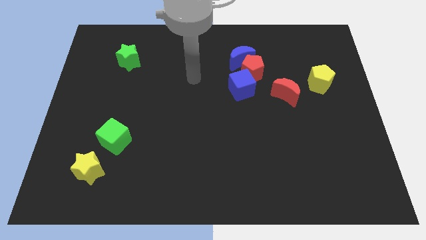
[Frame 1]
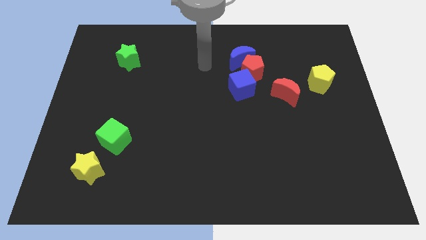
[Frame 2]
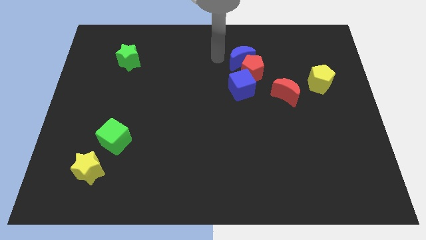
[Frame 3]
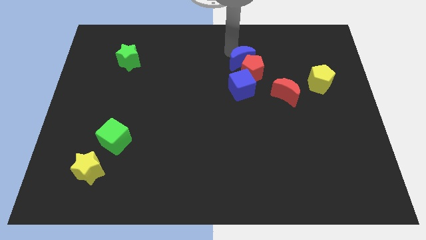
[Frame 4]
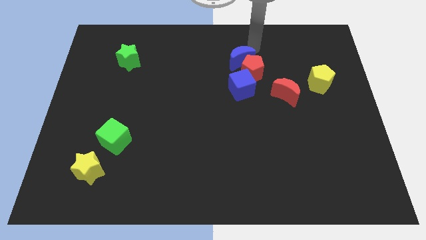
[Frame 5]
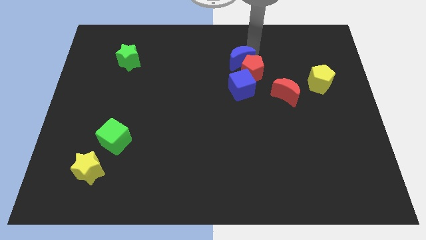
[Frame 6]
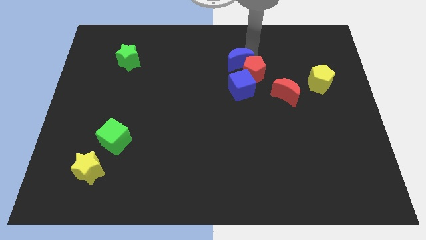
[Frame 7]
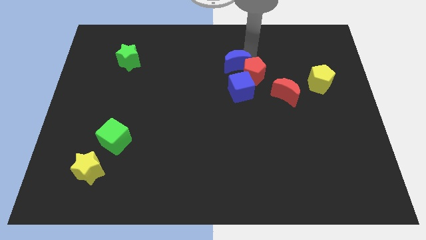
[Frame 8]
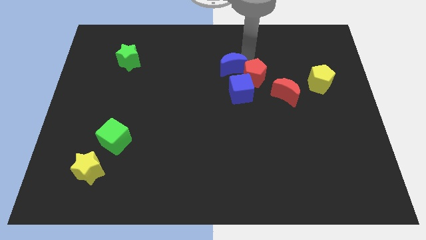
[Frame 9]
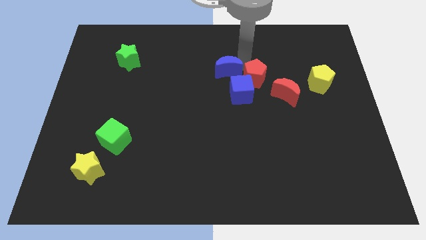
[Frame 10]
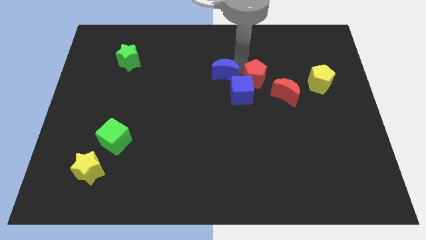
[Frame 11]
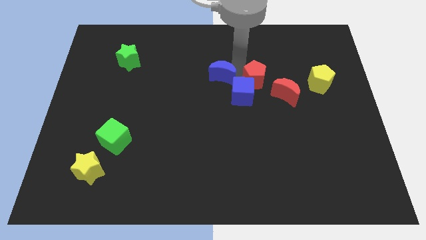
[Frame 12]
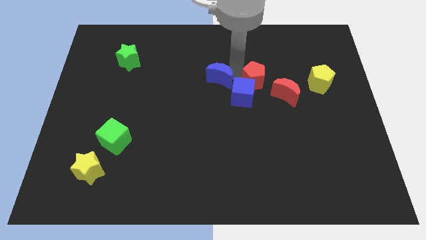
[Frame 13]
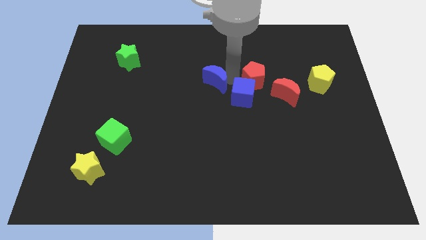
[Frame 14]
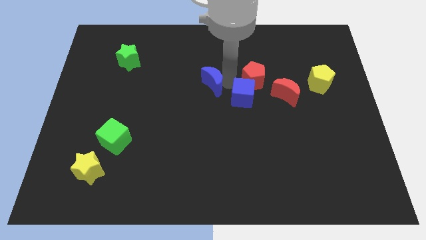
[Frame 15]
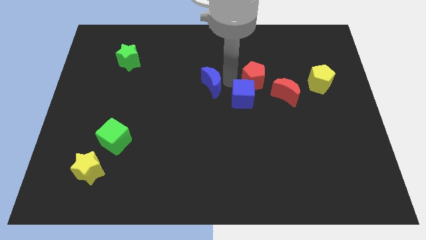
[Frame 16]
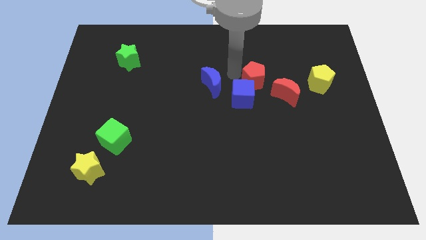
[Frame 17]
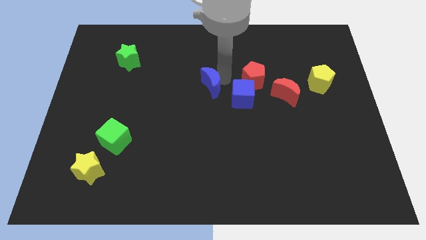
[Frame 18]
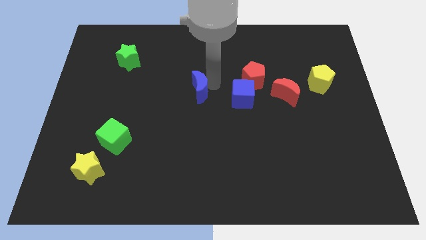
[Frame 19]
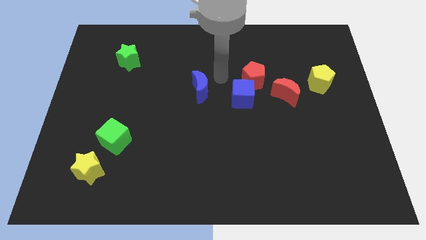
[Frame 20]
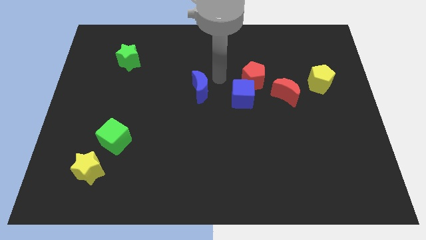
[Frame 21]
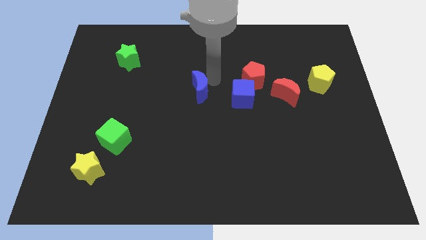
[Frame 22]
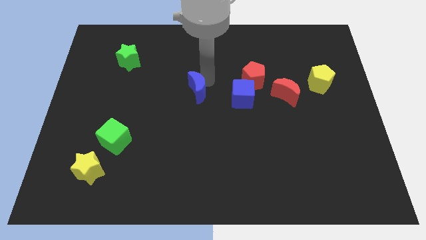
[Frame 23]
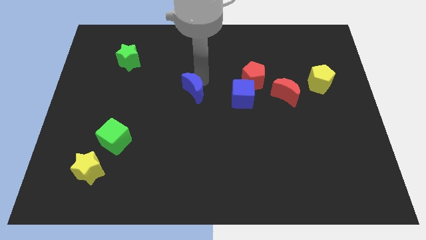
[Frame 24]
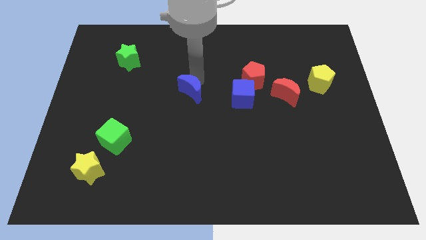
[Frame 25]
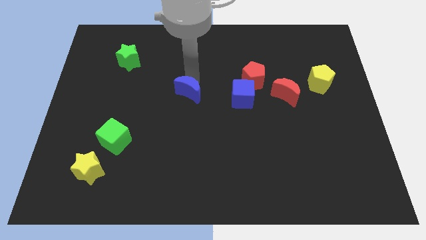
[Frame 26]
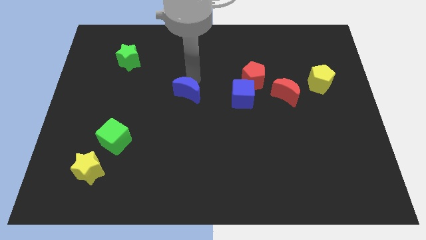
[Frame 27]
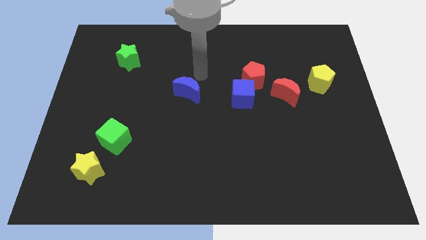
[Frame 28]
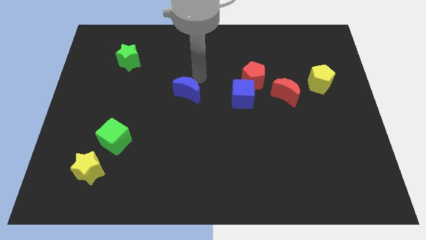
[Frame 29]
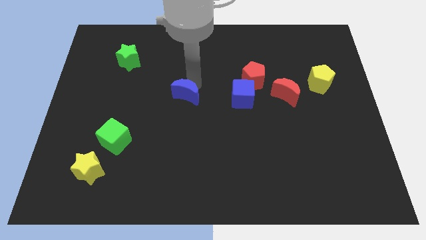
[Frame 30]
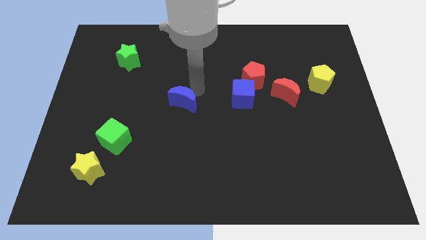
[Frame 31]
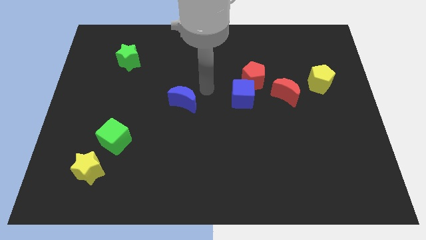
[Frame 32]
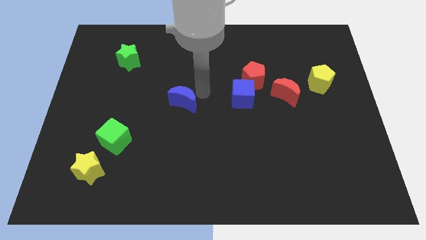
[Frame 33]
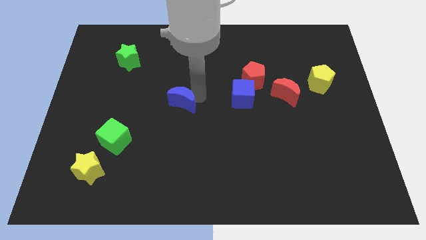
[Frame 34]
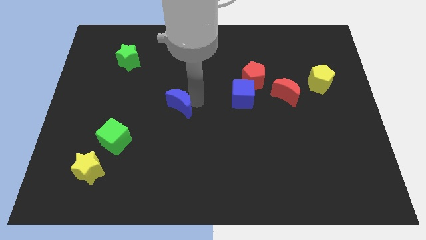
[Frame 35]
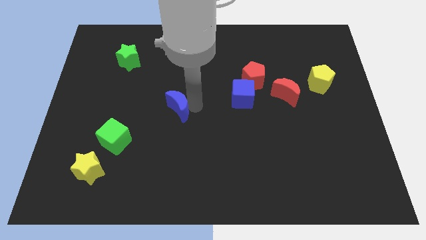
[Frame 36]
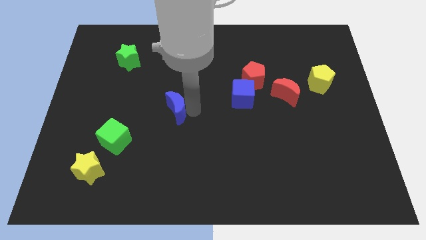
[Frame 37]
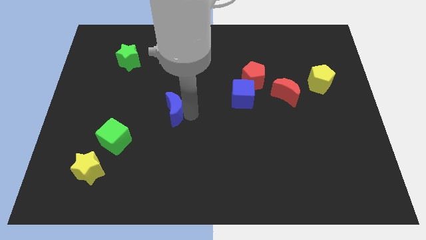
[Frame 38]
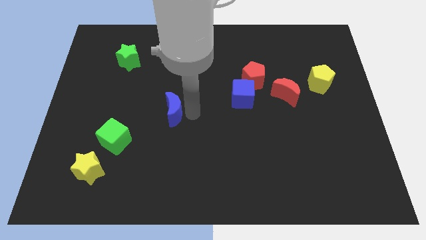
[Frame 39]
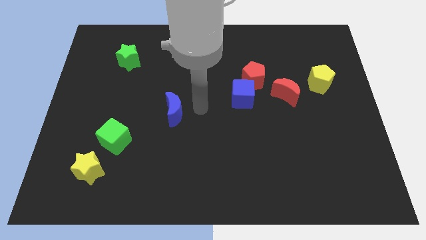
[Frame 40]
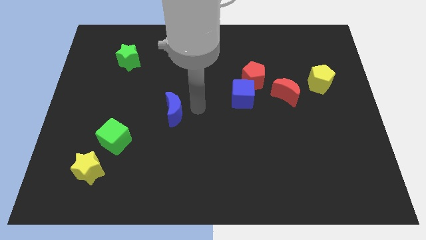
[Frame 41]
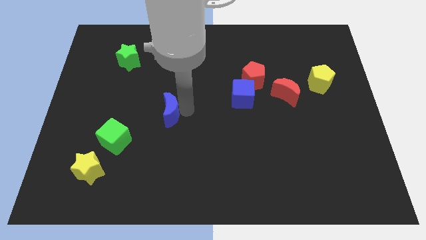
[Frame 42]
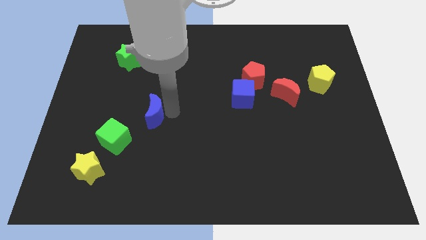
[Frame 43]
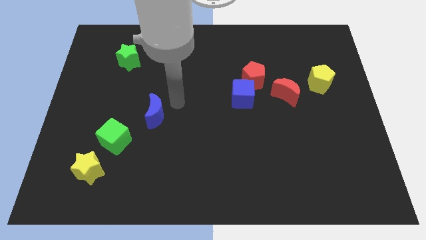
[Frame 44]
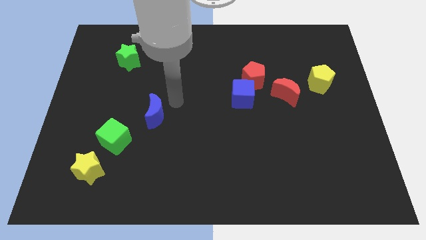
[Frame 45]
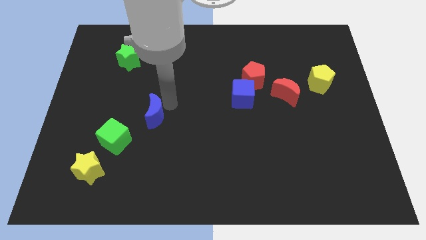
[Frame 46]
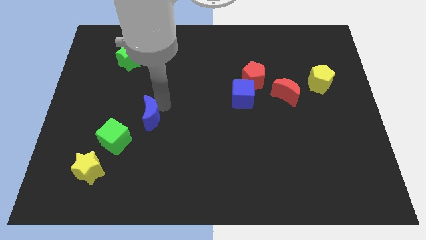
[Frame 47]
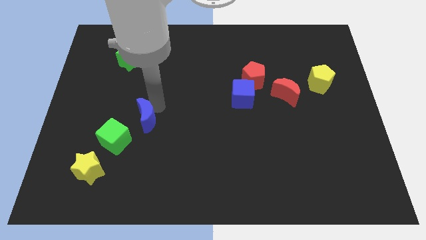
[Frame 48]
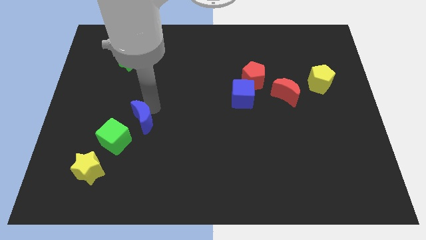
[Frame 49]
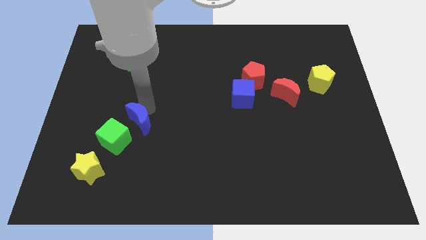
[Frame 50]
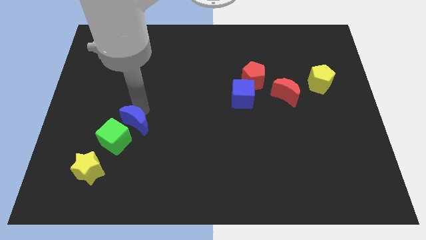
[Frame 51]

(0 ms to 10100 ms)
slide the blue moon close to the green cube
